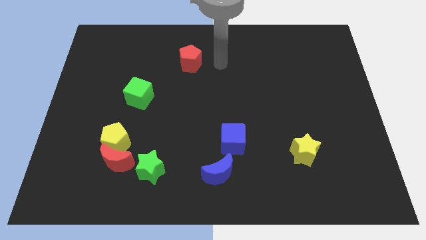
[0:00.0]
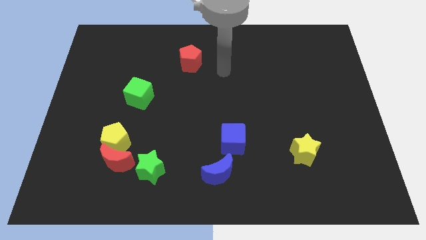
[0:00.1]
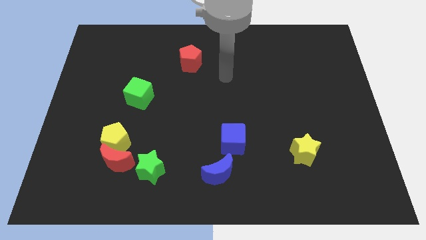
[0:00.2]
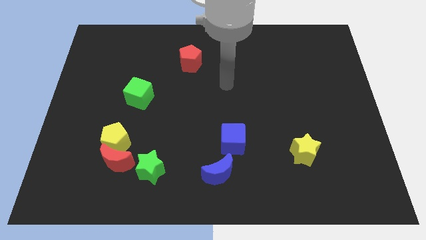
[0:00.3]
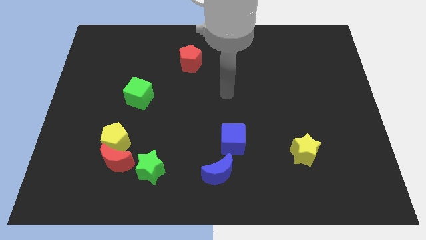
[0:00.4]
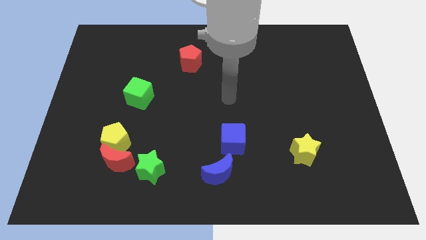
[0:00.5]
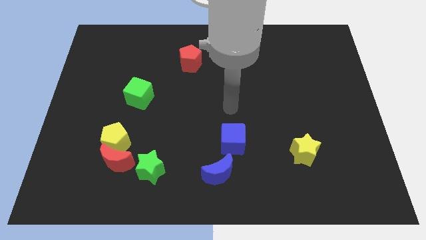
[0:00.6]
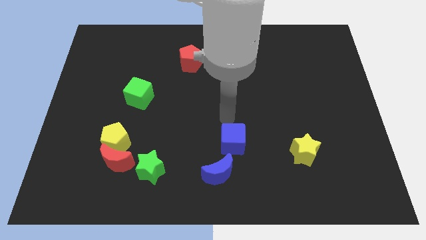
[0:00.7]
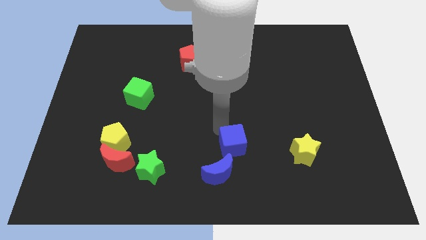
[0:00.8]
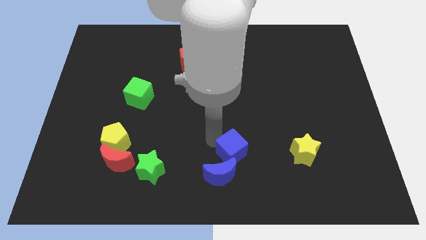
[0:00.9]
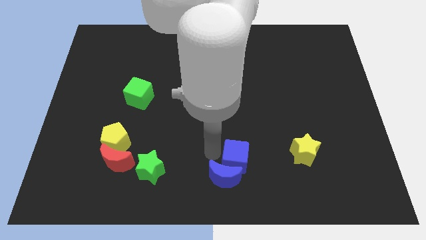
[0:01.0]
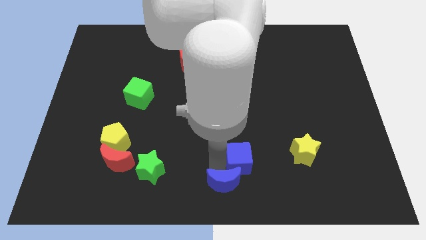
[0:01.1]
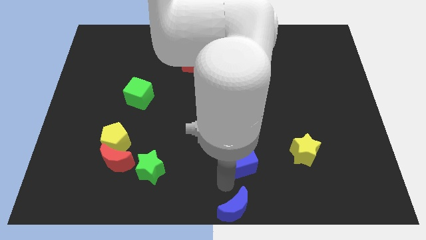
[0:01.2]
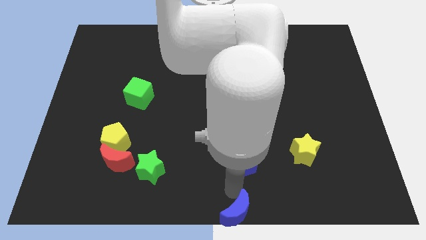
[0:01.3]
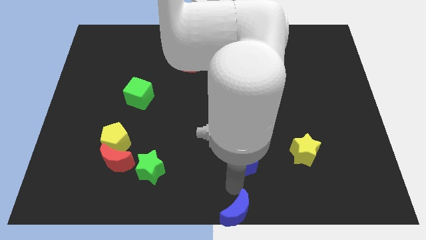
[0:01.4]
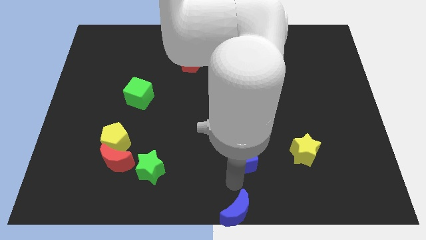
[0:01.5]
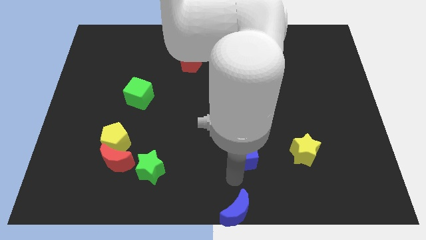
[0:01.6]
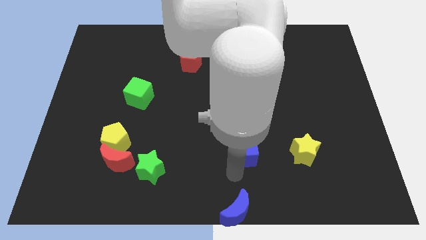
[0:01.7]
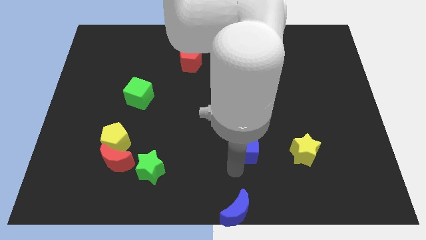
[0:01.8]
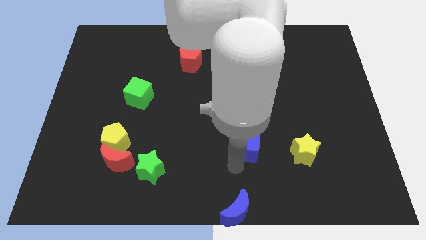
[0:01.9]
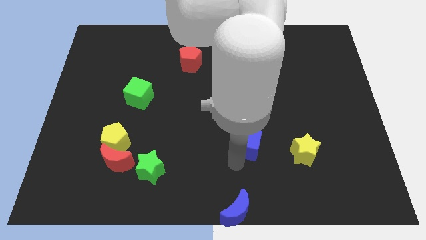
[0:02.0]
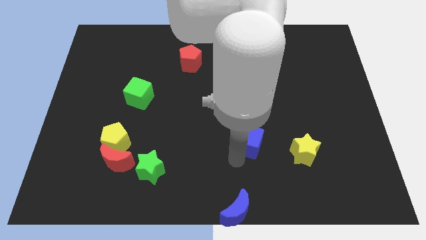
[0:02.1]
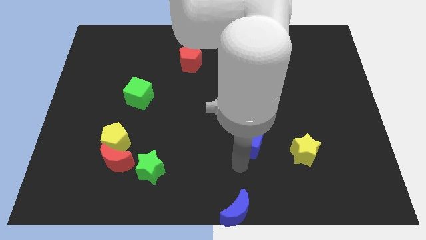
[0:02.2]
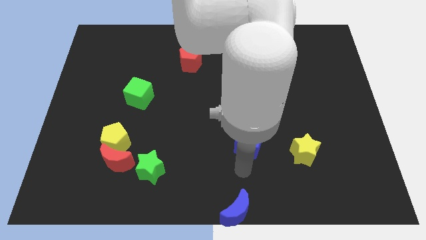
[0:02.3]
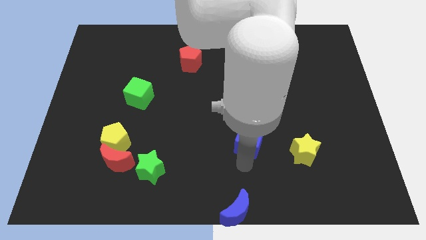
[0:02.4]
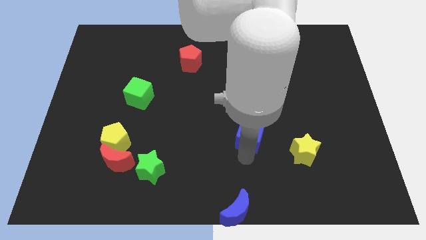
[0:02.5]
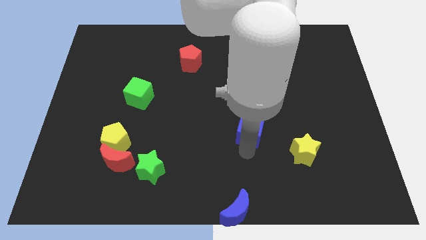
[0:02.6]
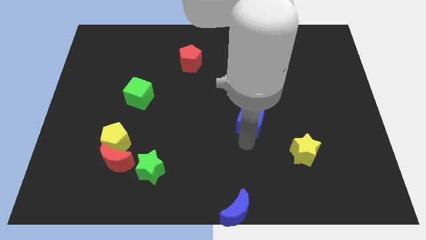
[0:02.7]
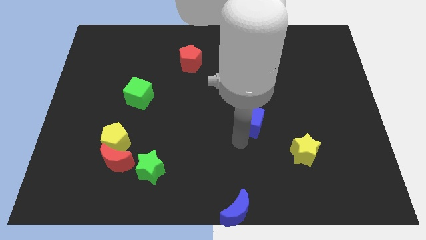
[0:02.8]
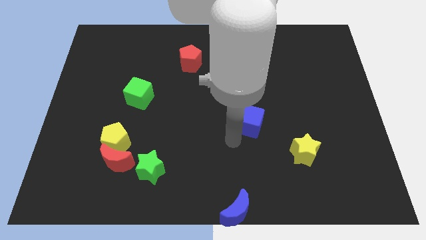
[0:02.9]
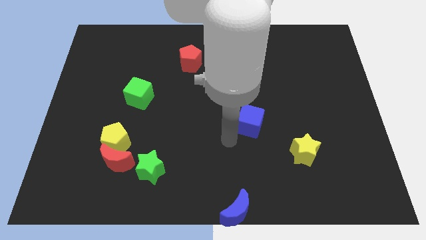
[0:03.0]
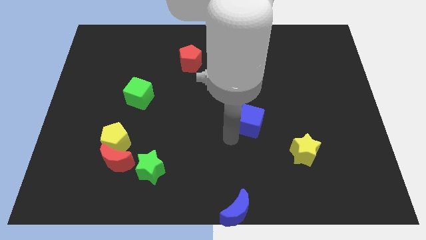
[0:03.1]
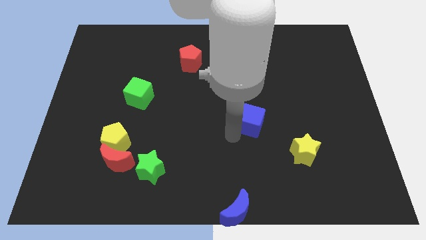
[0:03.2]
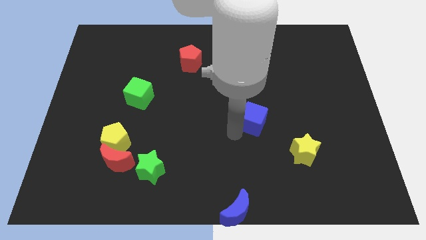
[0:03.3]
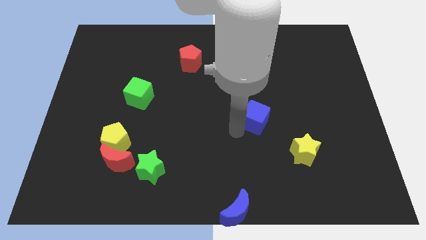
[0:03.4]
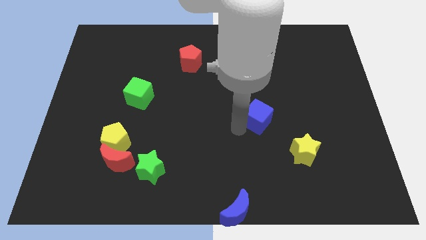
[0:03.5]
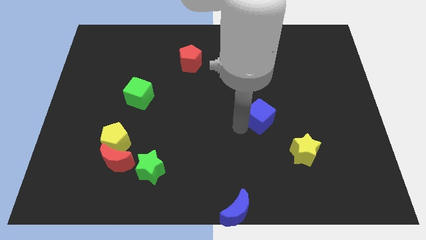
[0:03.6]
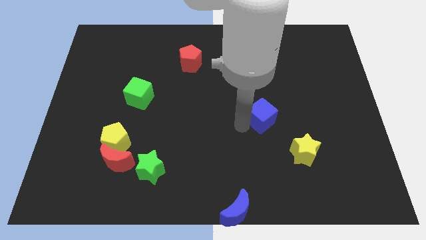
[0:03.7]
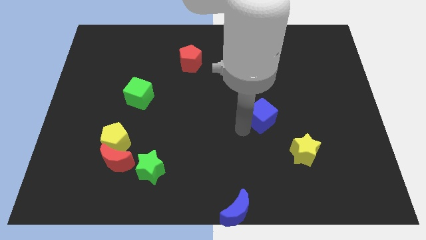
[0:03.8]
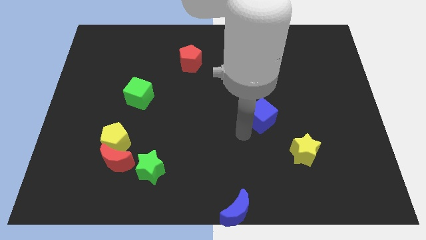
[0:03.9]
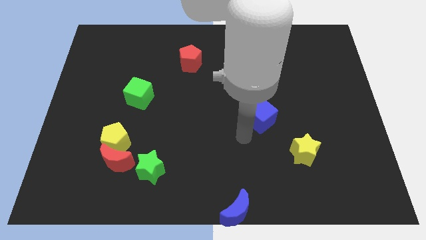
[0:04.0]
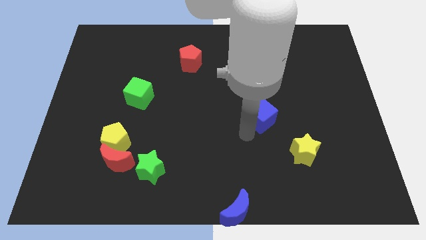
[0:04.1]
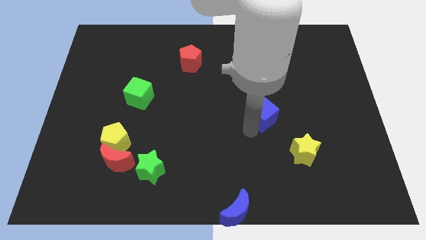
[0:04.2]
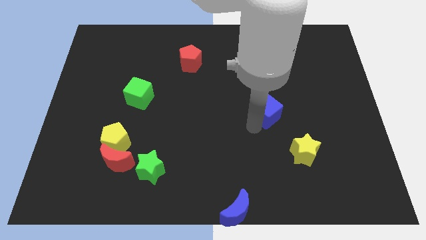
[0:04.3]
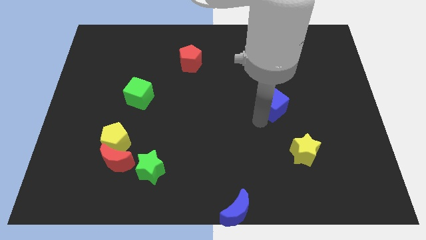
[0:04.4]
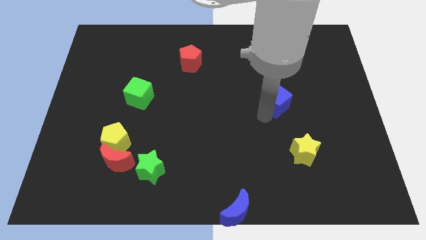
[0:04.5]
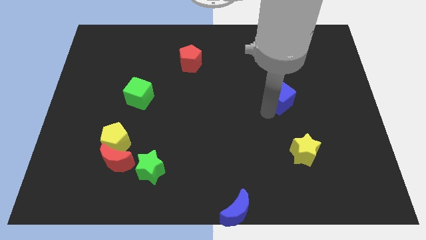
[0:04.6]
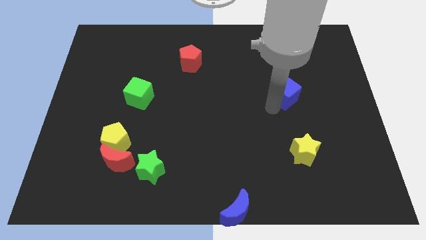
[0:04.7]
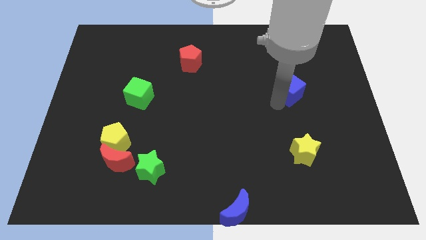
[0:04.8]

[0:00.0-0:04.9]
slide the blue cube diagonally upwards and to the right

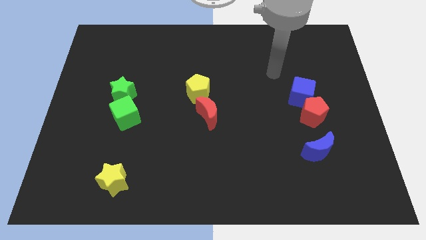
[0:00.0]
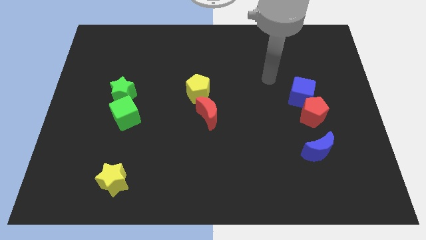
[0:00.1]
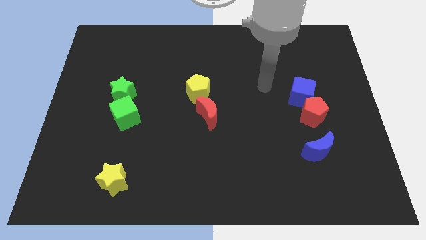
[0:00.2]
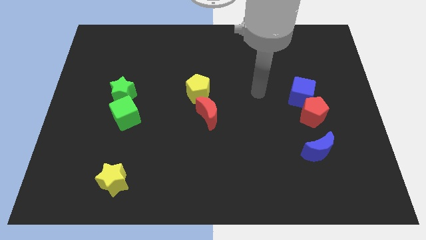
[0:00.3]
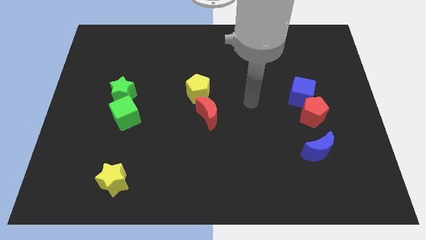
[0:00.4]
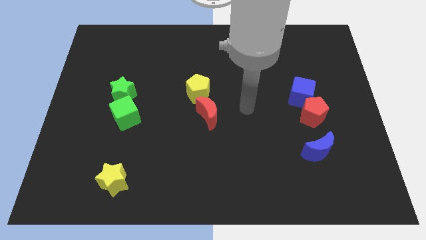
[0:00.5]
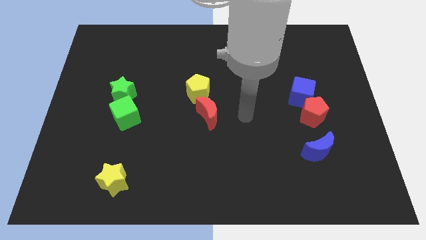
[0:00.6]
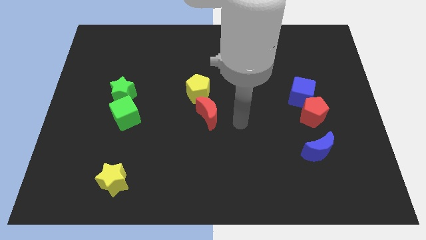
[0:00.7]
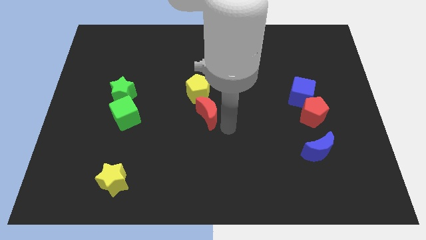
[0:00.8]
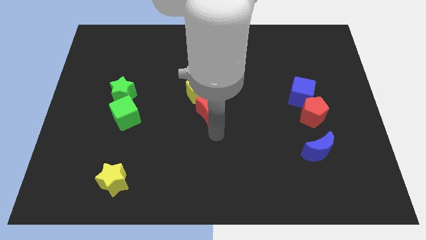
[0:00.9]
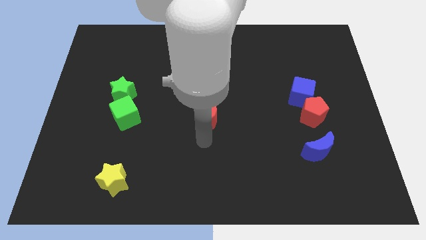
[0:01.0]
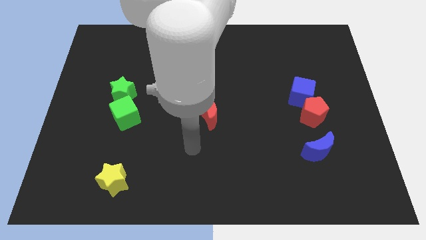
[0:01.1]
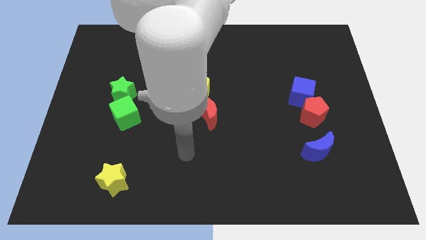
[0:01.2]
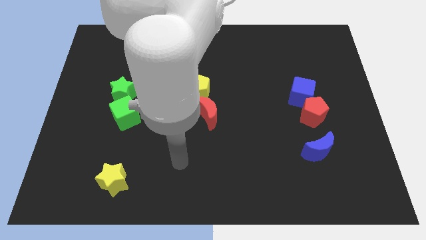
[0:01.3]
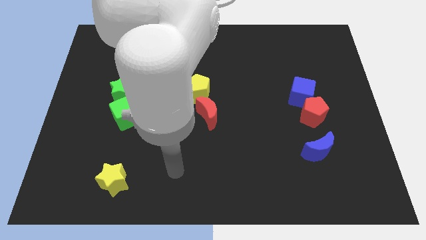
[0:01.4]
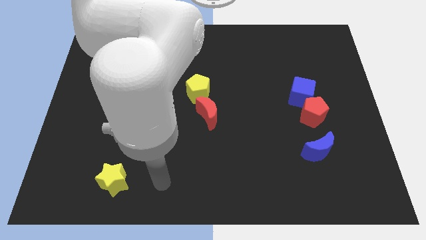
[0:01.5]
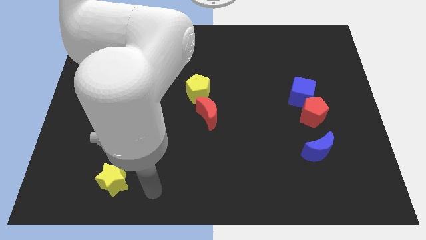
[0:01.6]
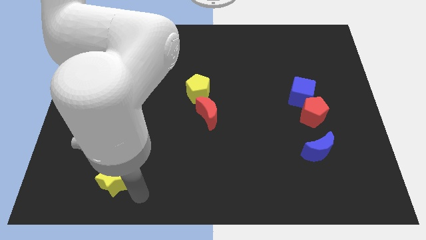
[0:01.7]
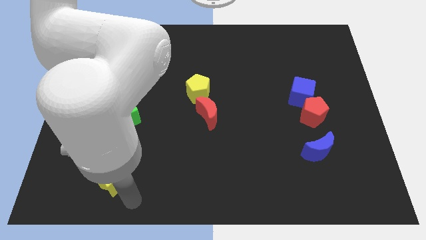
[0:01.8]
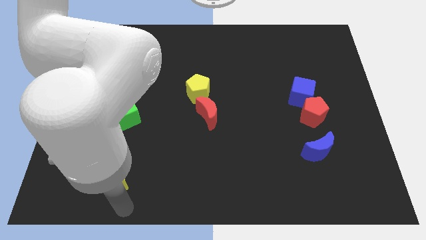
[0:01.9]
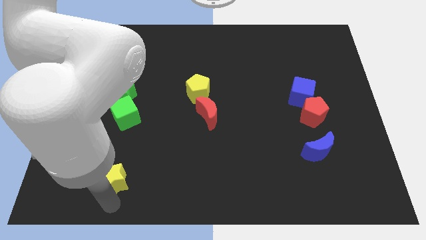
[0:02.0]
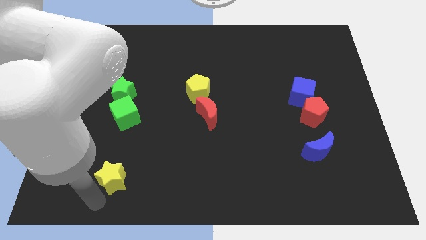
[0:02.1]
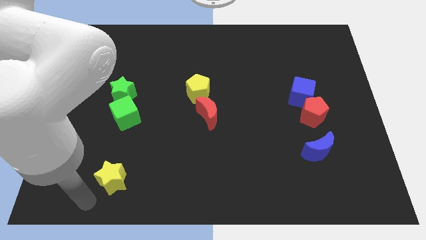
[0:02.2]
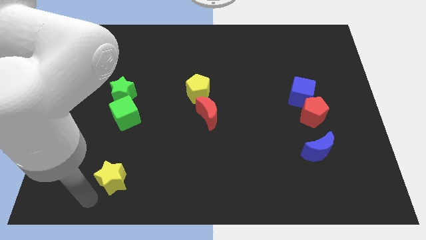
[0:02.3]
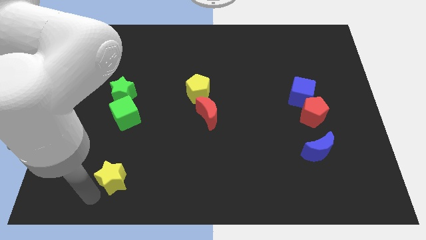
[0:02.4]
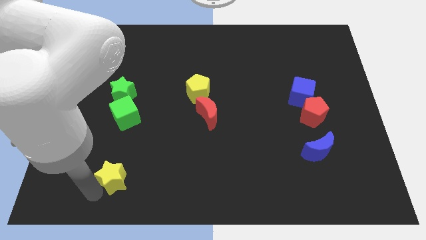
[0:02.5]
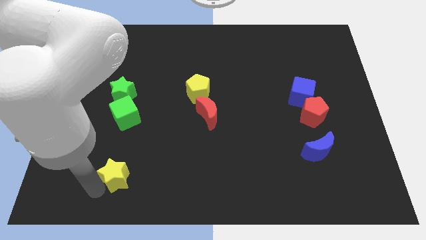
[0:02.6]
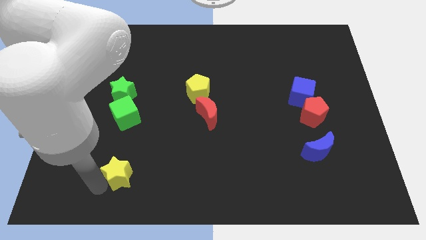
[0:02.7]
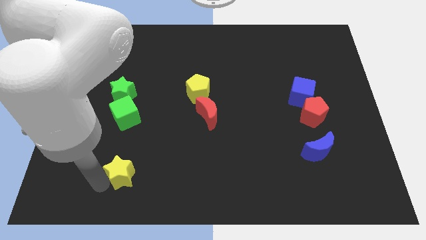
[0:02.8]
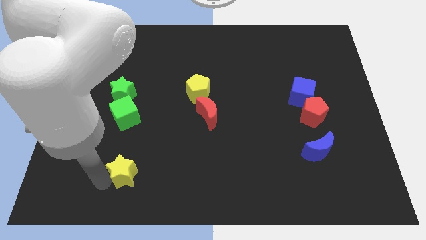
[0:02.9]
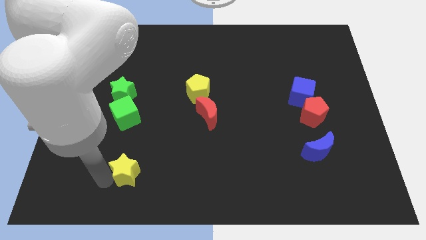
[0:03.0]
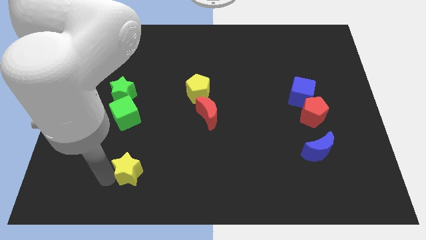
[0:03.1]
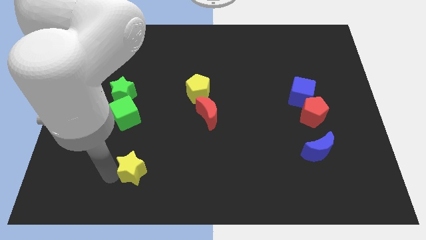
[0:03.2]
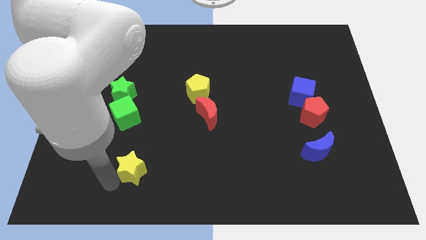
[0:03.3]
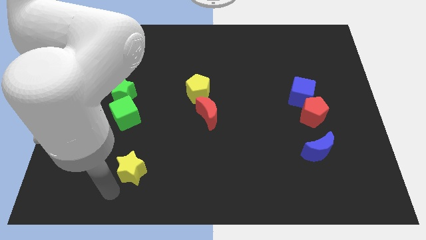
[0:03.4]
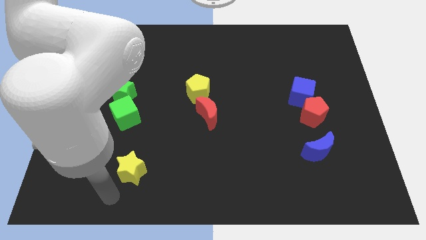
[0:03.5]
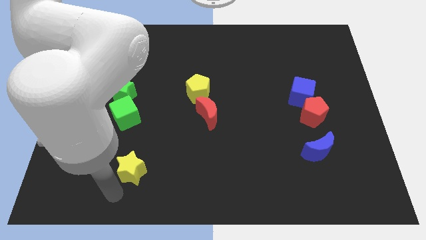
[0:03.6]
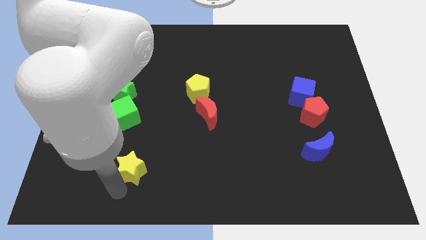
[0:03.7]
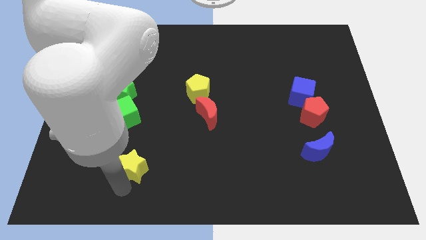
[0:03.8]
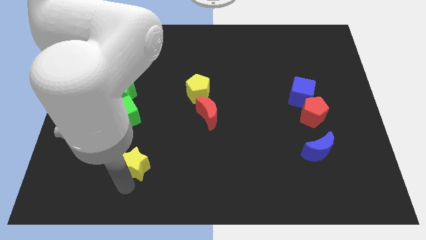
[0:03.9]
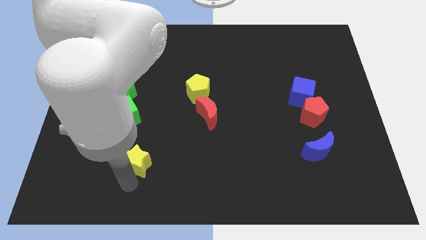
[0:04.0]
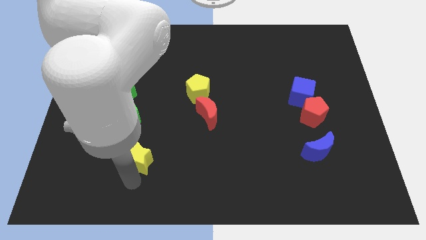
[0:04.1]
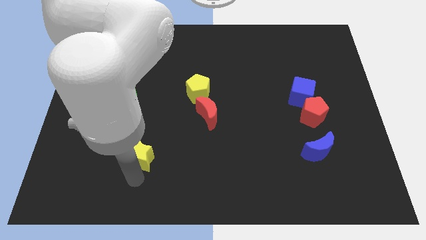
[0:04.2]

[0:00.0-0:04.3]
slightly push the yellow star upwards and right diagonally
